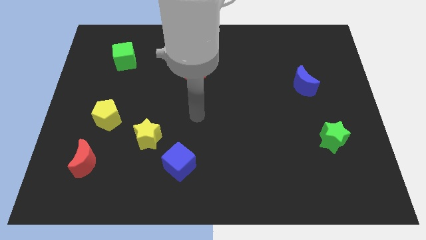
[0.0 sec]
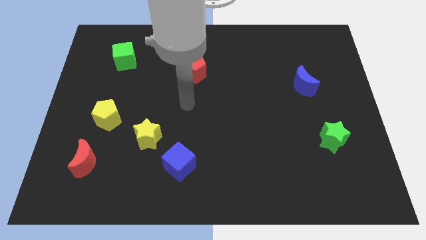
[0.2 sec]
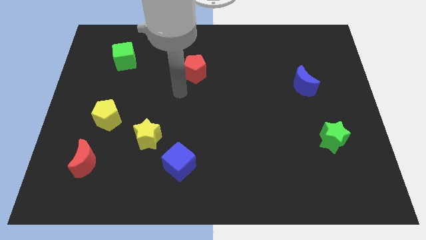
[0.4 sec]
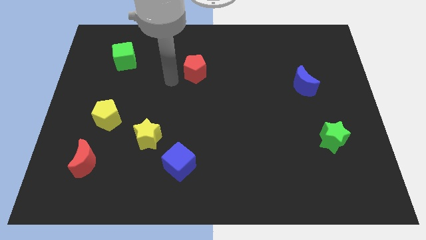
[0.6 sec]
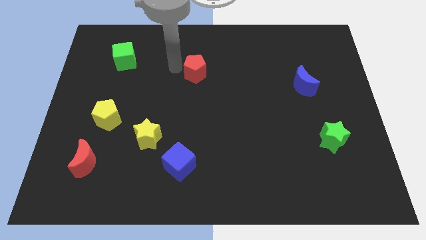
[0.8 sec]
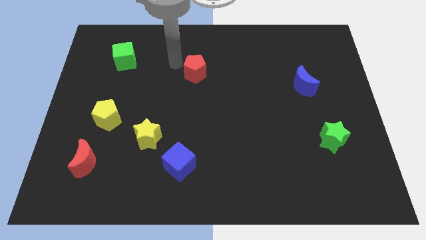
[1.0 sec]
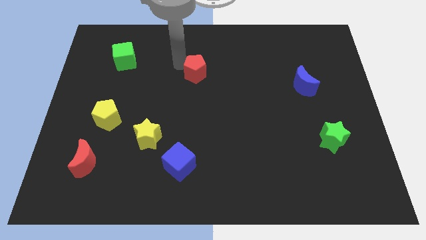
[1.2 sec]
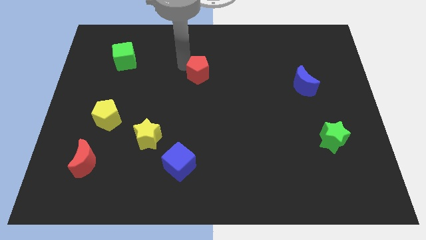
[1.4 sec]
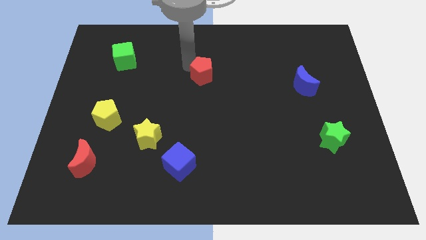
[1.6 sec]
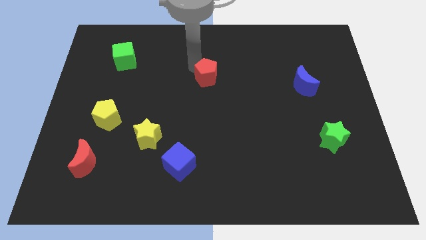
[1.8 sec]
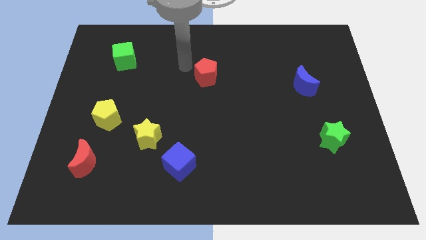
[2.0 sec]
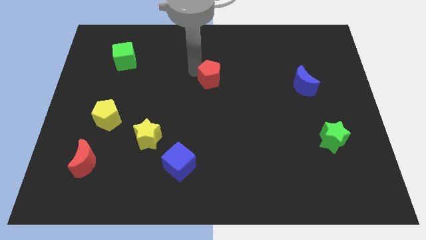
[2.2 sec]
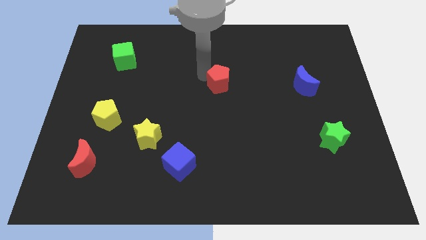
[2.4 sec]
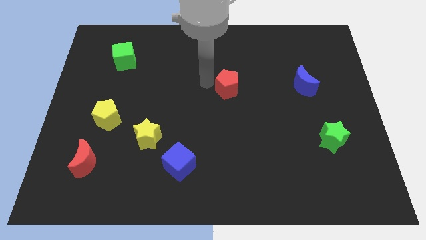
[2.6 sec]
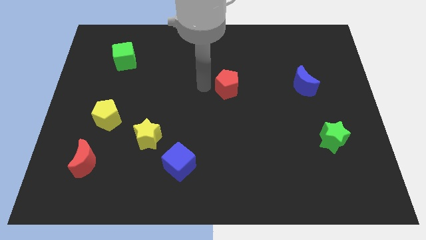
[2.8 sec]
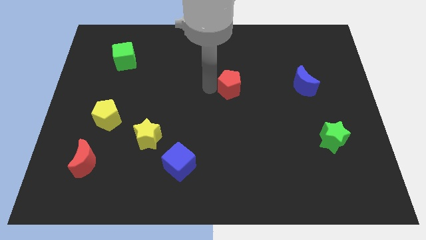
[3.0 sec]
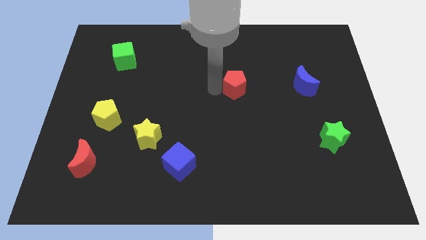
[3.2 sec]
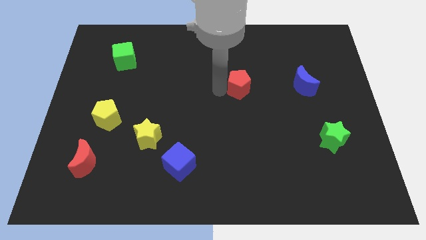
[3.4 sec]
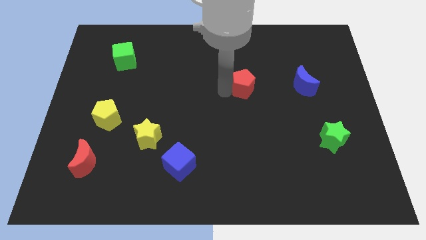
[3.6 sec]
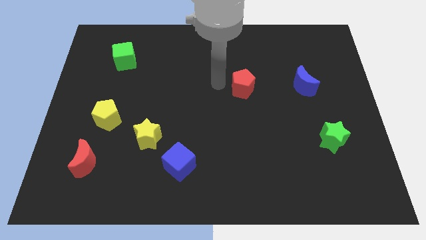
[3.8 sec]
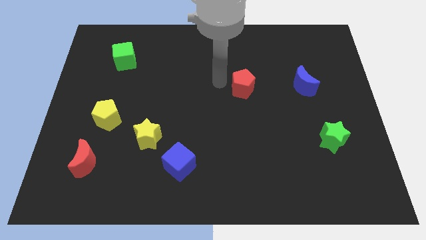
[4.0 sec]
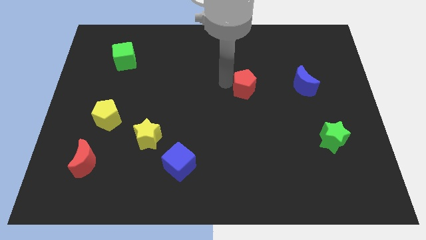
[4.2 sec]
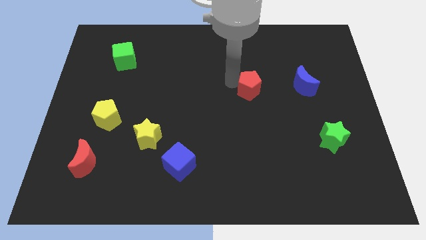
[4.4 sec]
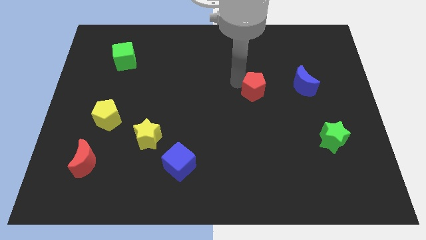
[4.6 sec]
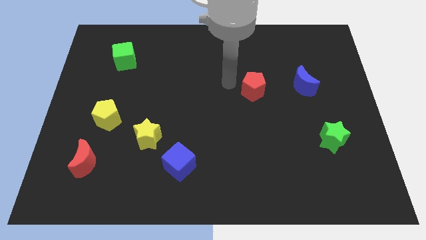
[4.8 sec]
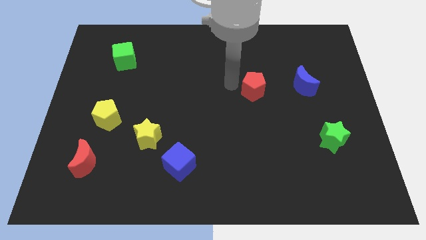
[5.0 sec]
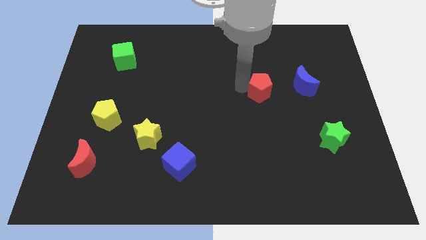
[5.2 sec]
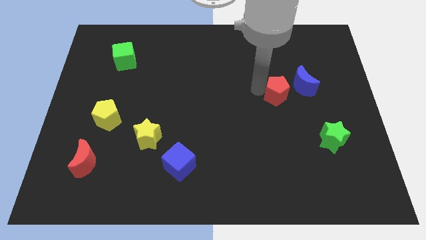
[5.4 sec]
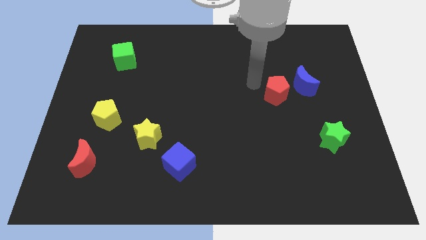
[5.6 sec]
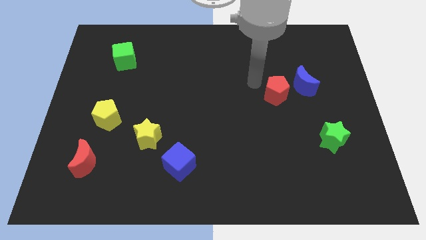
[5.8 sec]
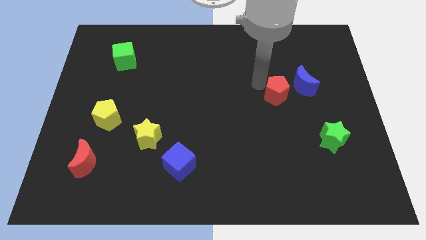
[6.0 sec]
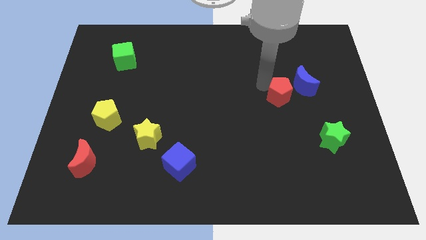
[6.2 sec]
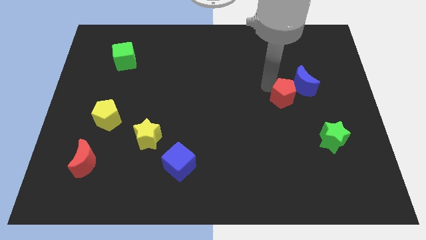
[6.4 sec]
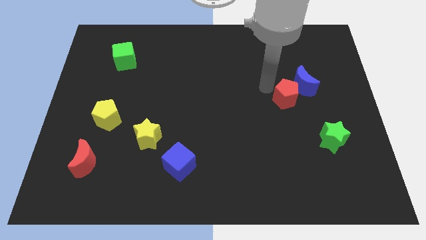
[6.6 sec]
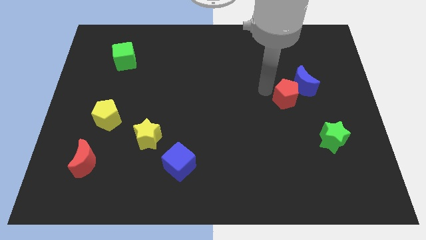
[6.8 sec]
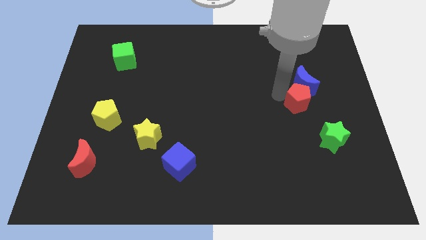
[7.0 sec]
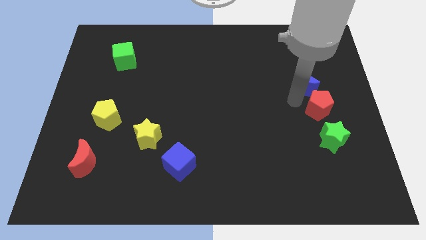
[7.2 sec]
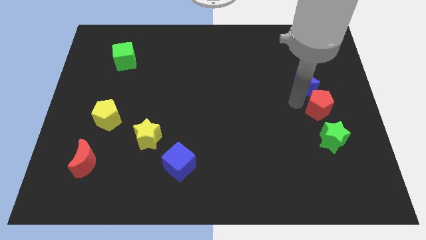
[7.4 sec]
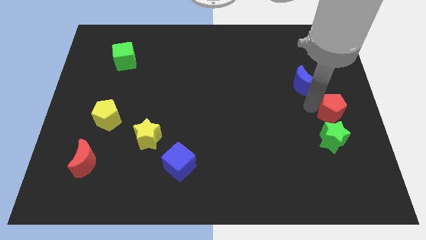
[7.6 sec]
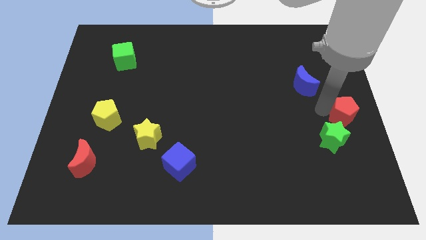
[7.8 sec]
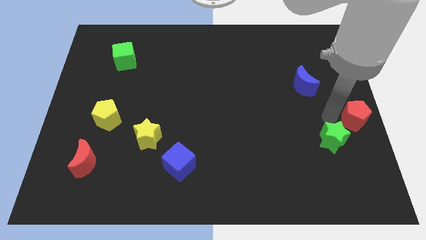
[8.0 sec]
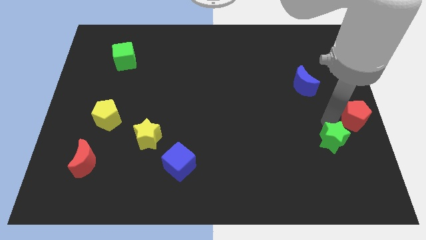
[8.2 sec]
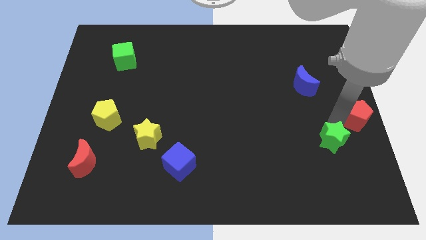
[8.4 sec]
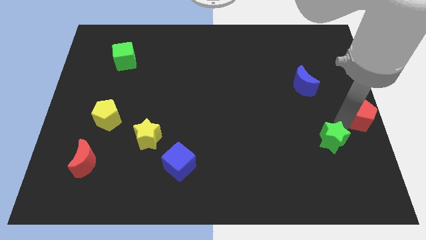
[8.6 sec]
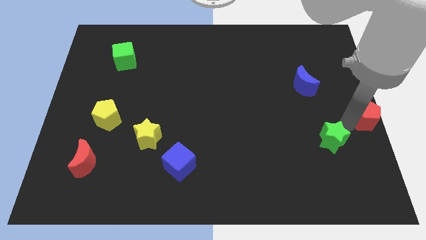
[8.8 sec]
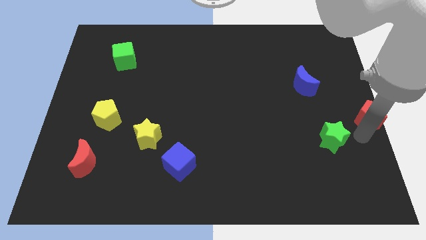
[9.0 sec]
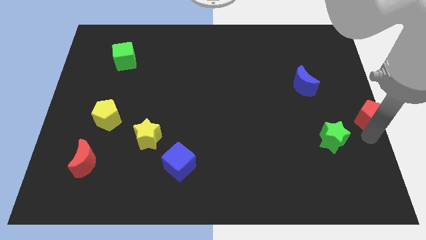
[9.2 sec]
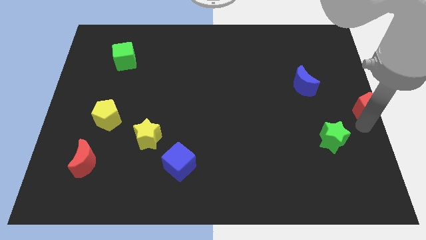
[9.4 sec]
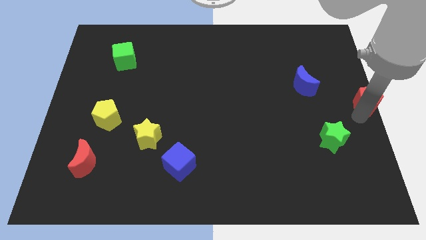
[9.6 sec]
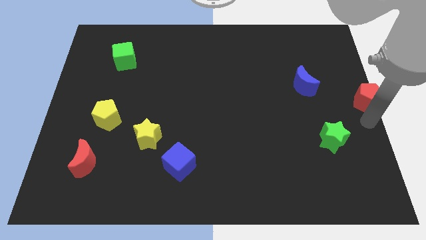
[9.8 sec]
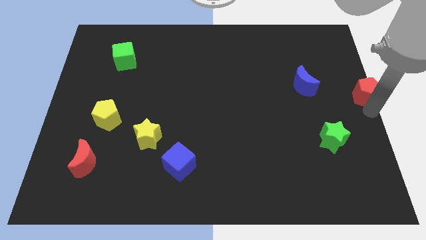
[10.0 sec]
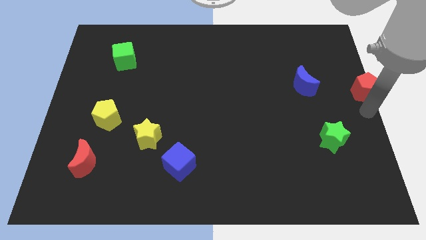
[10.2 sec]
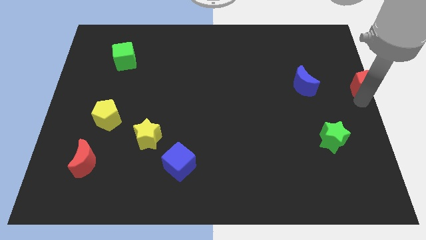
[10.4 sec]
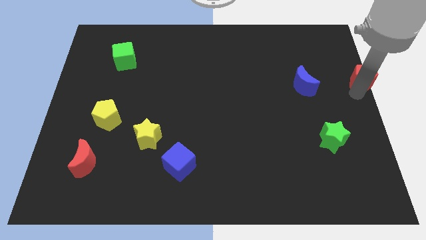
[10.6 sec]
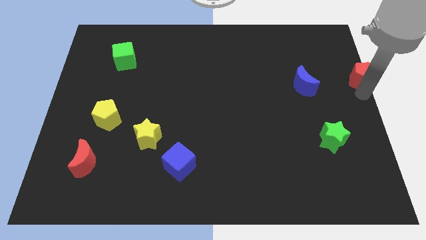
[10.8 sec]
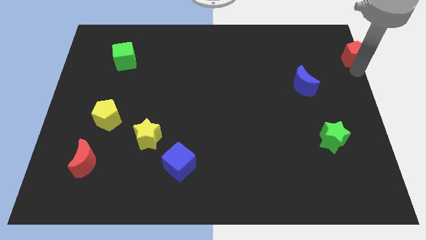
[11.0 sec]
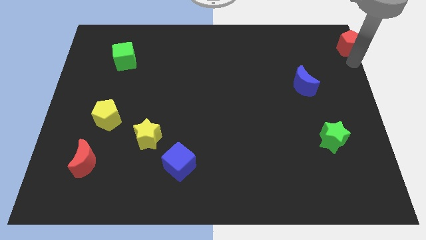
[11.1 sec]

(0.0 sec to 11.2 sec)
move the red pentagon to the top right
